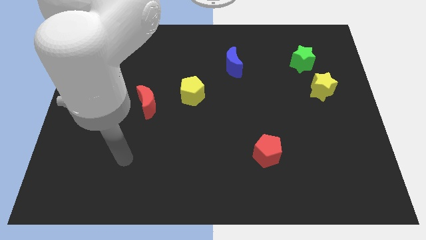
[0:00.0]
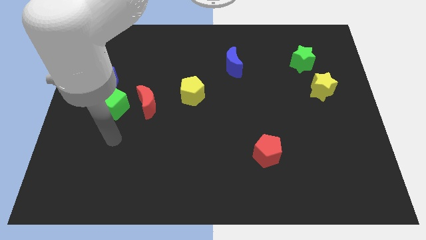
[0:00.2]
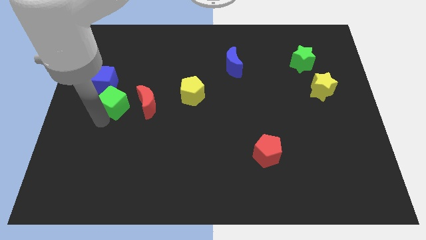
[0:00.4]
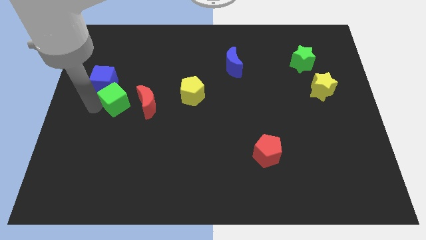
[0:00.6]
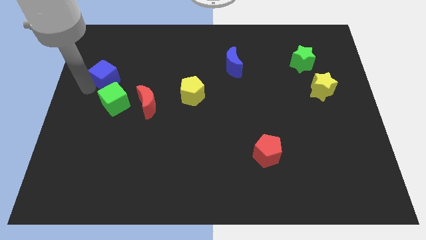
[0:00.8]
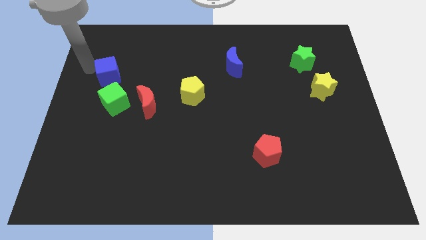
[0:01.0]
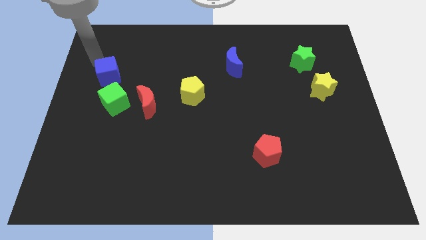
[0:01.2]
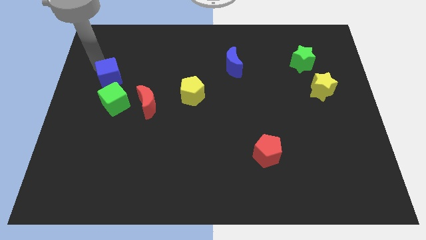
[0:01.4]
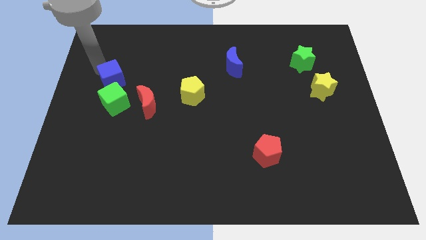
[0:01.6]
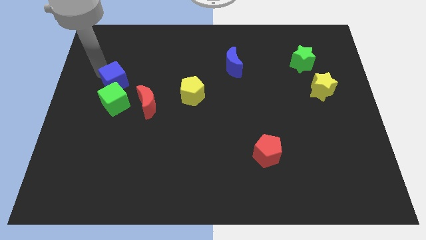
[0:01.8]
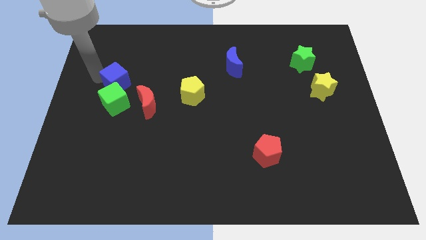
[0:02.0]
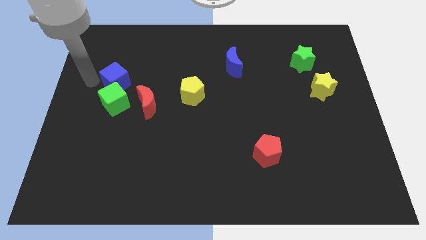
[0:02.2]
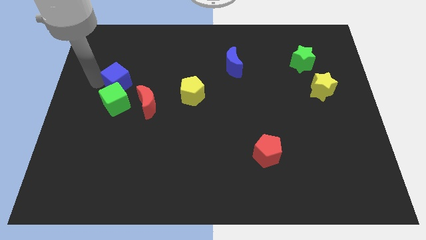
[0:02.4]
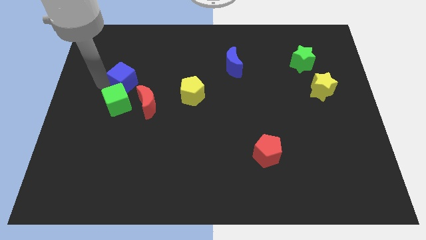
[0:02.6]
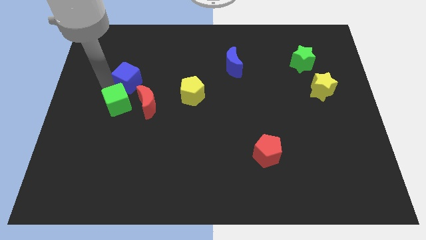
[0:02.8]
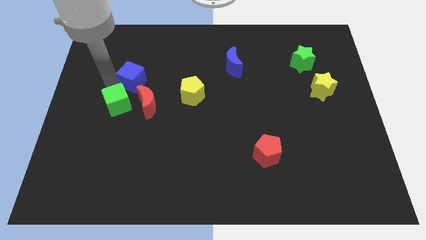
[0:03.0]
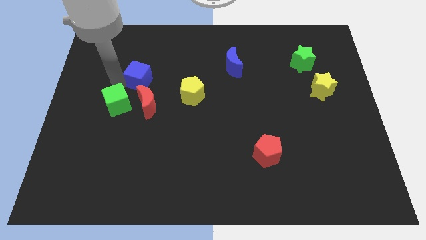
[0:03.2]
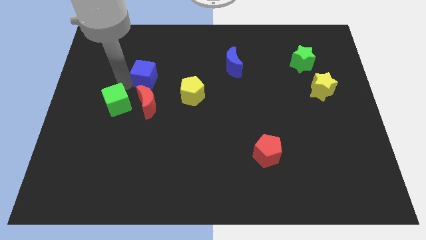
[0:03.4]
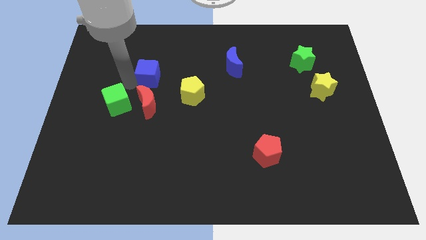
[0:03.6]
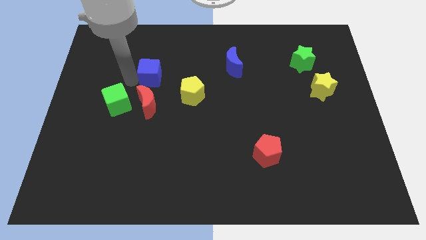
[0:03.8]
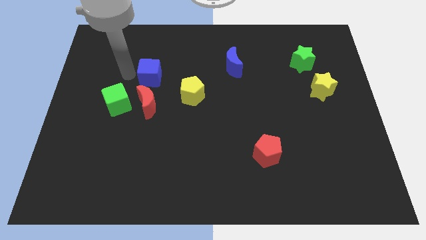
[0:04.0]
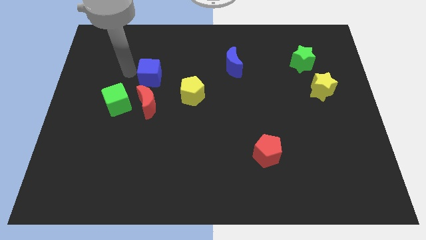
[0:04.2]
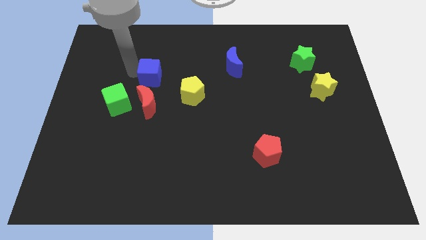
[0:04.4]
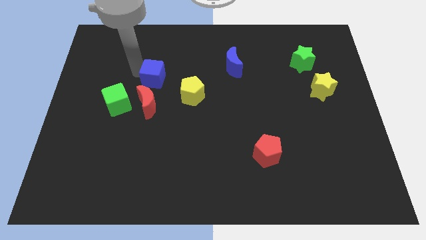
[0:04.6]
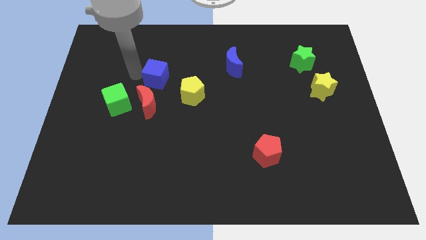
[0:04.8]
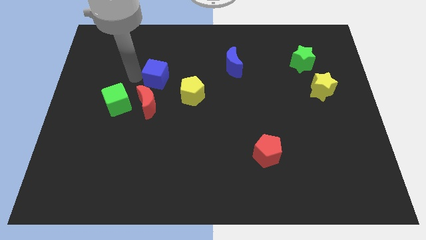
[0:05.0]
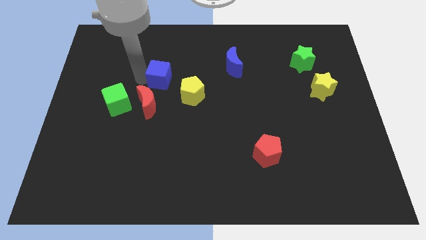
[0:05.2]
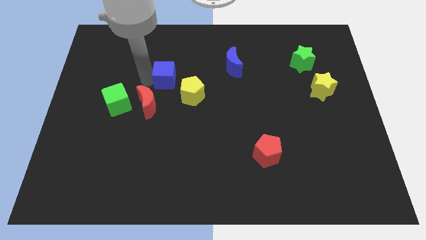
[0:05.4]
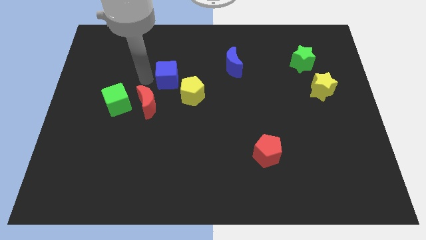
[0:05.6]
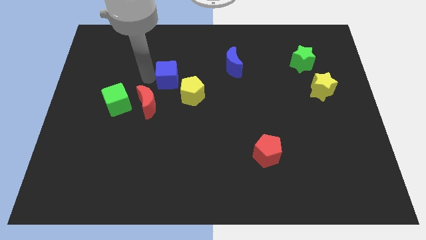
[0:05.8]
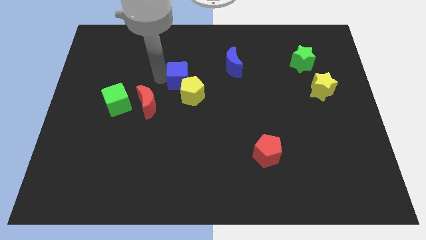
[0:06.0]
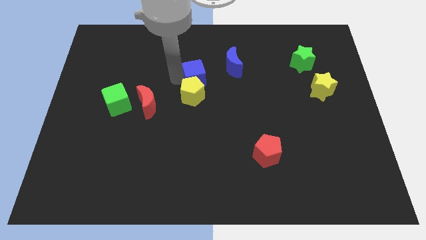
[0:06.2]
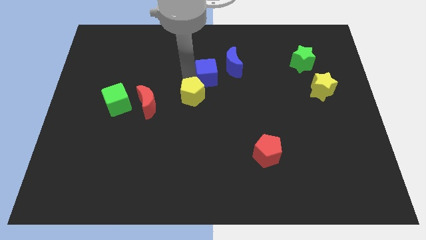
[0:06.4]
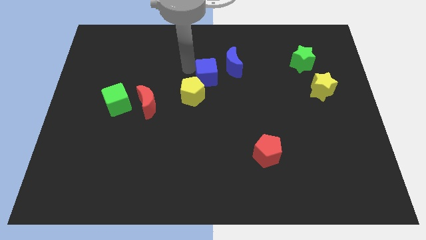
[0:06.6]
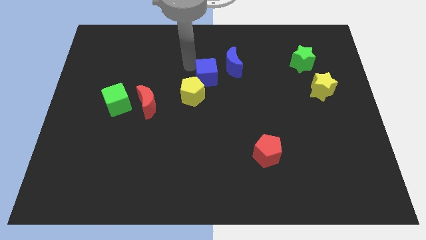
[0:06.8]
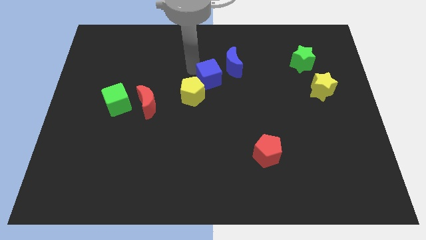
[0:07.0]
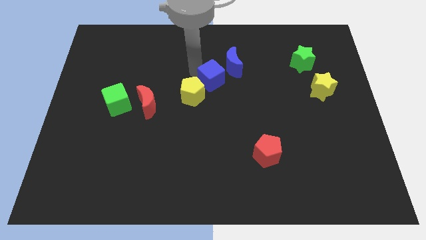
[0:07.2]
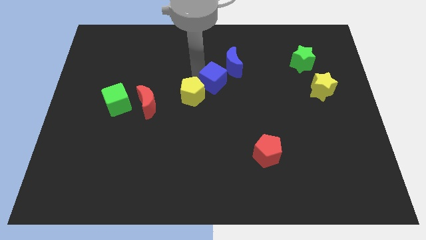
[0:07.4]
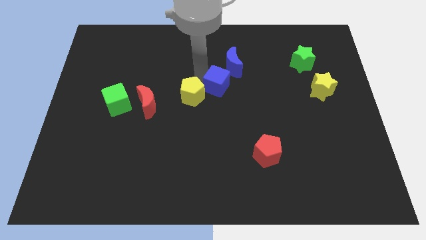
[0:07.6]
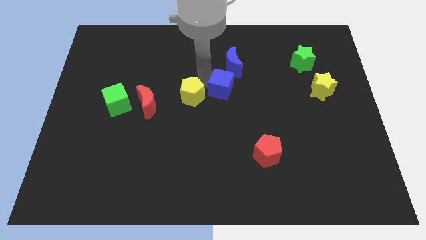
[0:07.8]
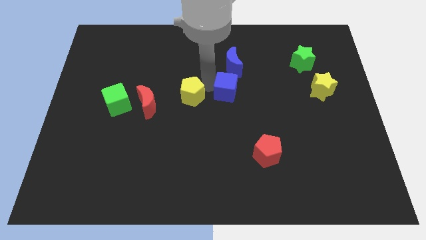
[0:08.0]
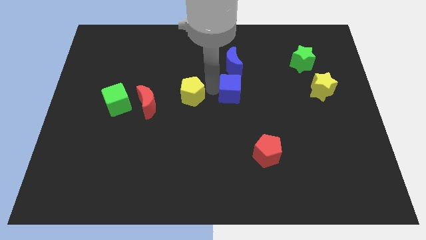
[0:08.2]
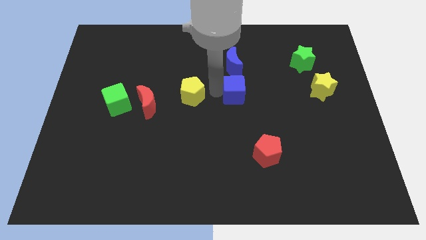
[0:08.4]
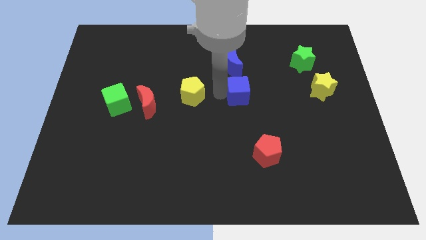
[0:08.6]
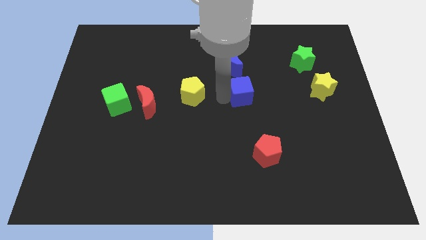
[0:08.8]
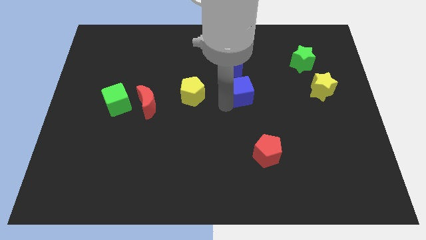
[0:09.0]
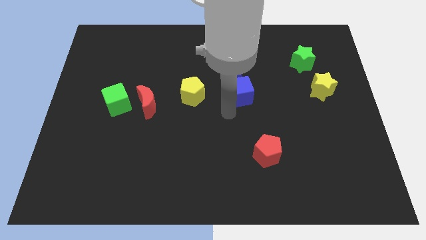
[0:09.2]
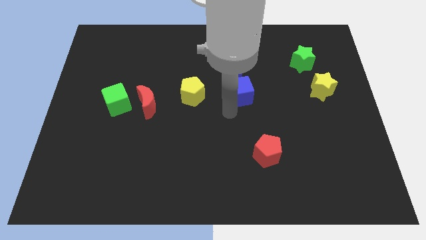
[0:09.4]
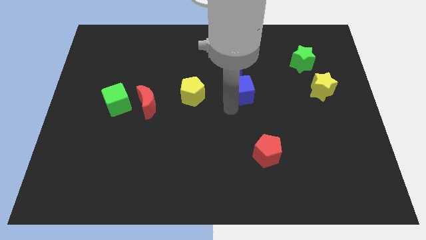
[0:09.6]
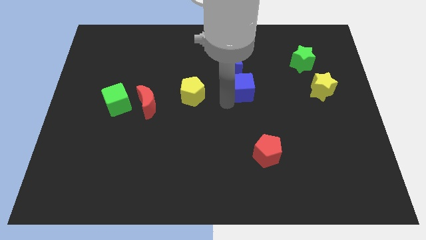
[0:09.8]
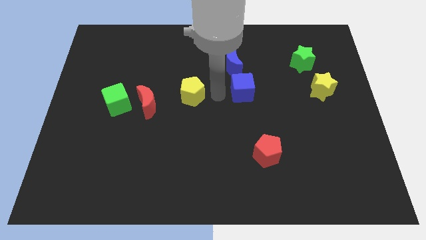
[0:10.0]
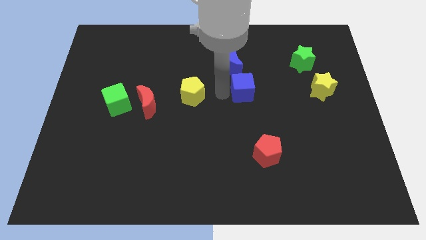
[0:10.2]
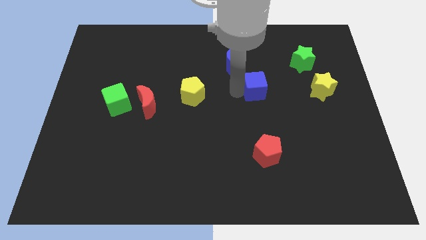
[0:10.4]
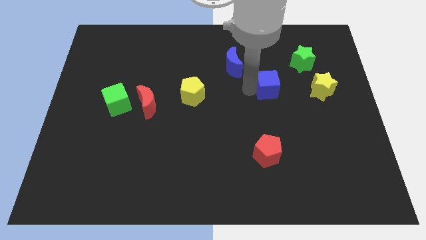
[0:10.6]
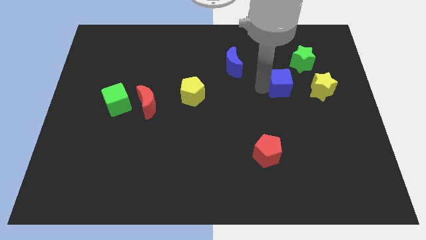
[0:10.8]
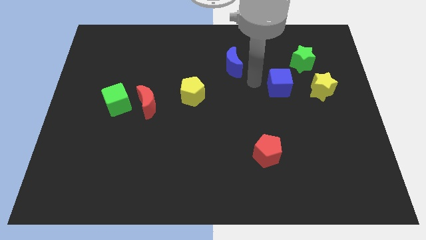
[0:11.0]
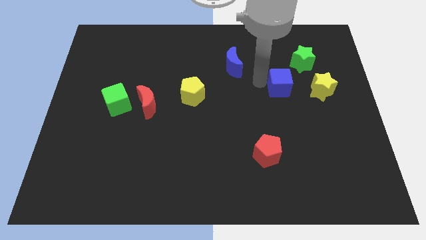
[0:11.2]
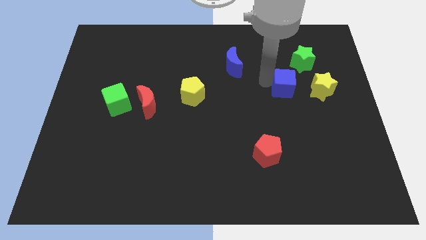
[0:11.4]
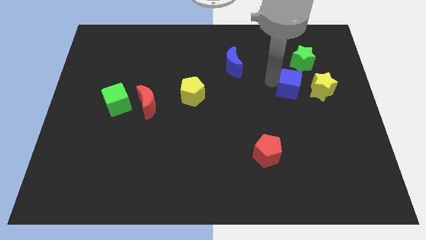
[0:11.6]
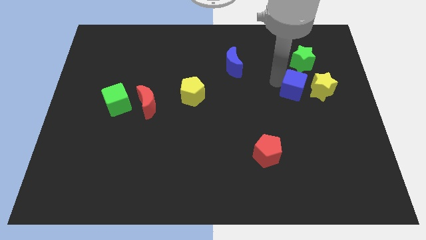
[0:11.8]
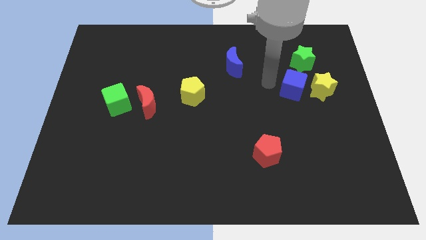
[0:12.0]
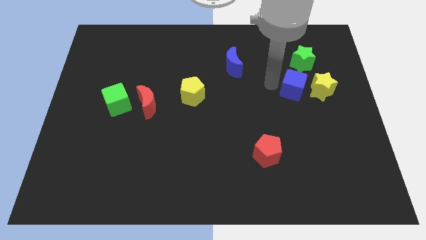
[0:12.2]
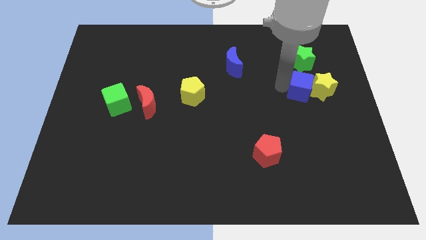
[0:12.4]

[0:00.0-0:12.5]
put the blue cube close to the yellow star

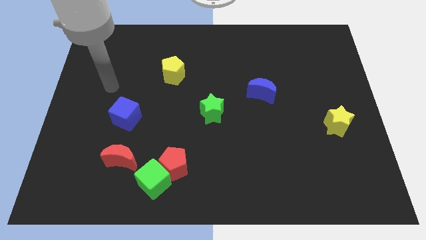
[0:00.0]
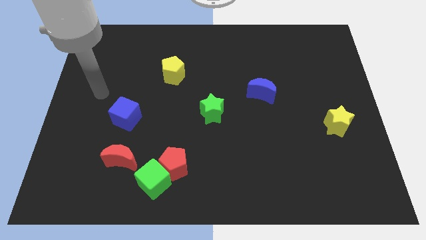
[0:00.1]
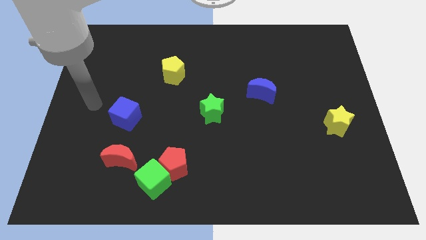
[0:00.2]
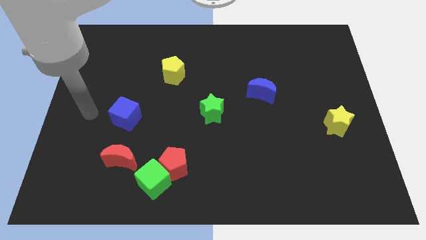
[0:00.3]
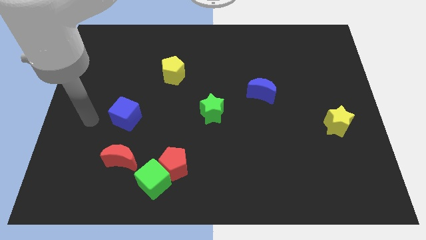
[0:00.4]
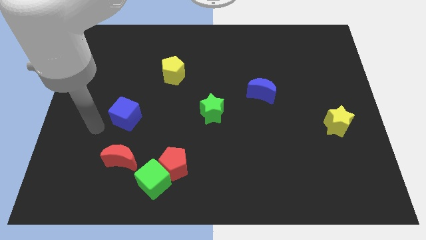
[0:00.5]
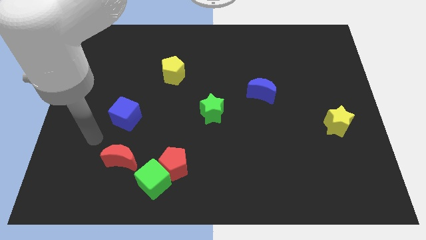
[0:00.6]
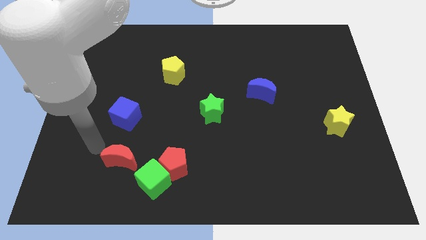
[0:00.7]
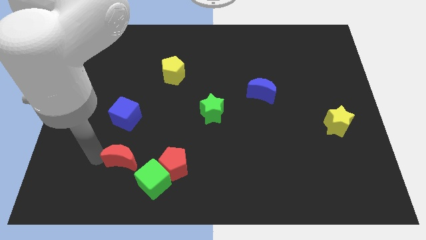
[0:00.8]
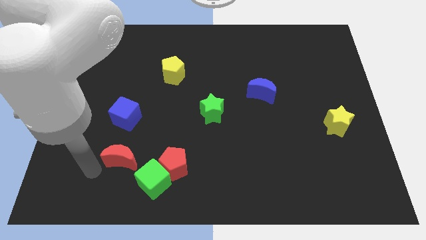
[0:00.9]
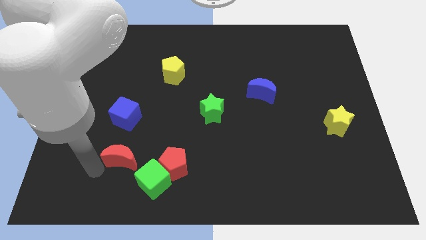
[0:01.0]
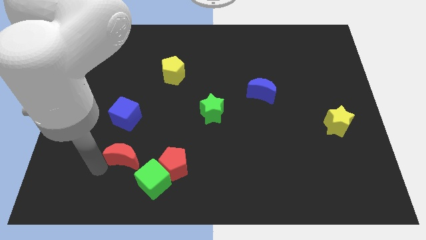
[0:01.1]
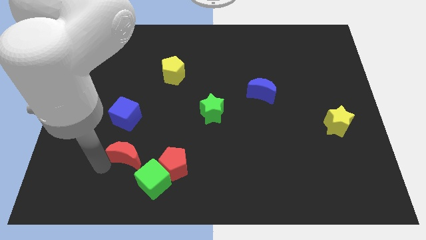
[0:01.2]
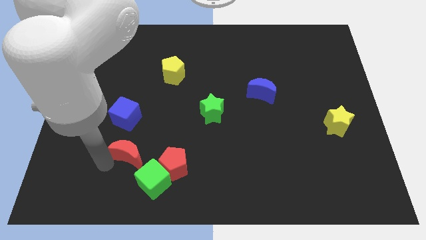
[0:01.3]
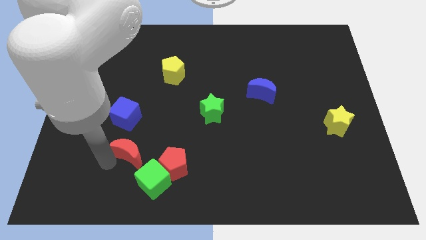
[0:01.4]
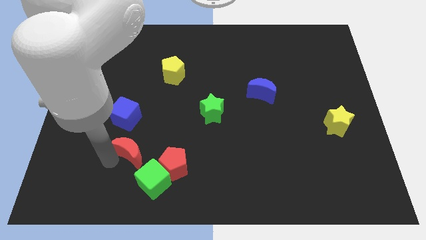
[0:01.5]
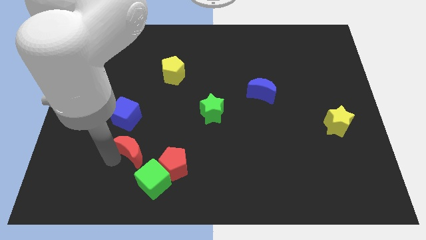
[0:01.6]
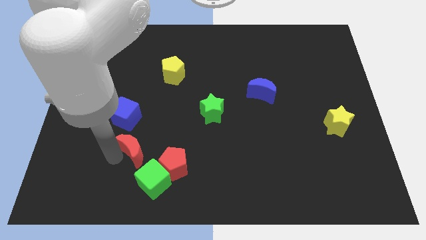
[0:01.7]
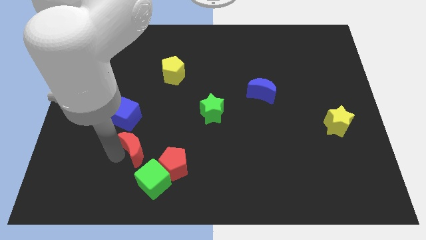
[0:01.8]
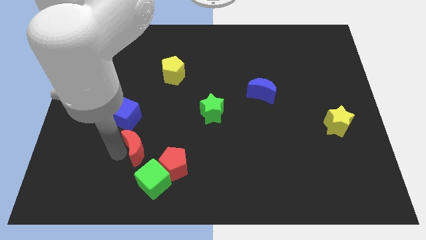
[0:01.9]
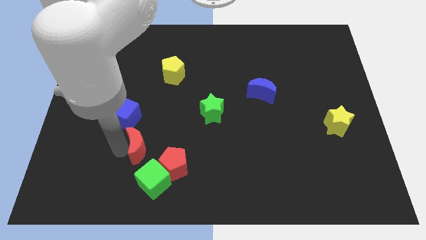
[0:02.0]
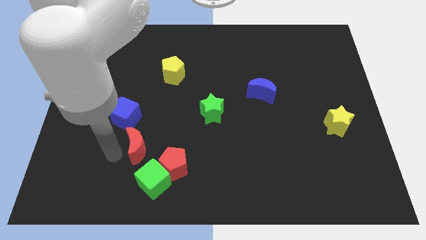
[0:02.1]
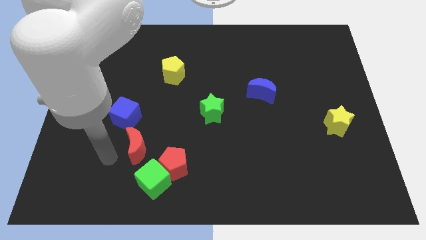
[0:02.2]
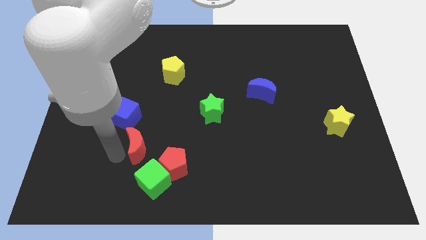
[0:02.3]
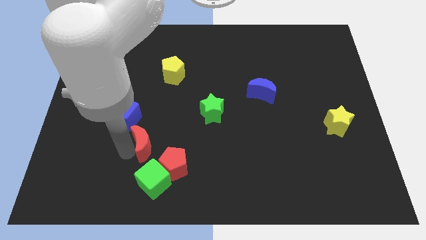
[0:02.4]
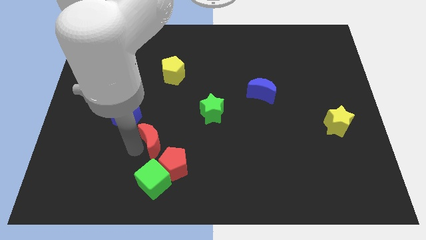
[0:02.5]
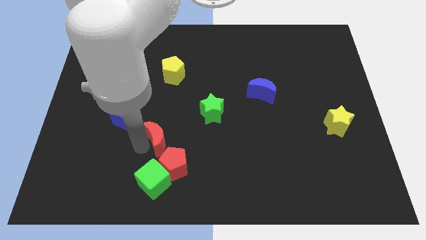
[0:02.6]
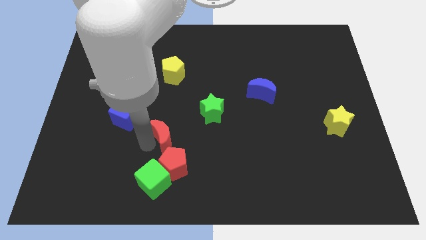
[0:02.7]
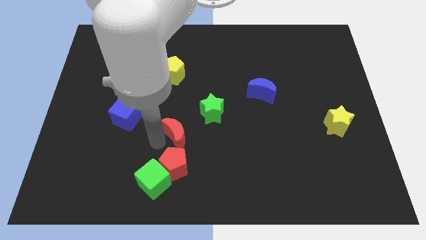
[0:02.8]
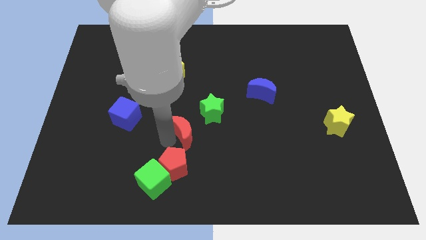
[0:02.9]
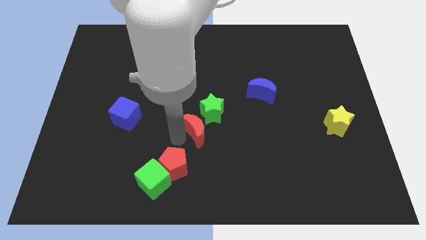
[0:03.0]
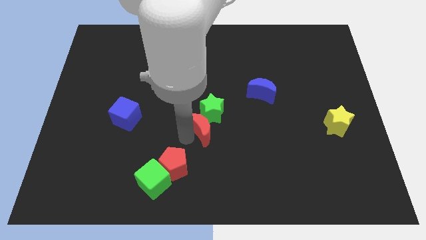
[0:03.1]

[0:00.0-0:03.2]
move the red moon close to the green star
